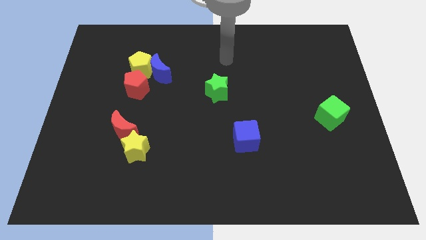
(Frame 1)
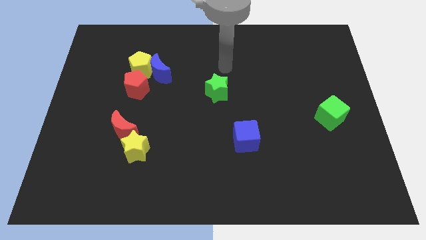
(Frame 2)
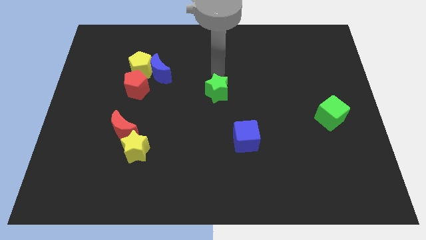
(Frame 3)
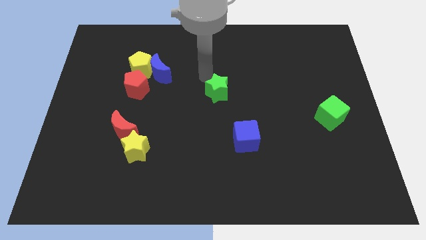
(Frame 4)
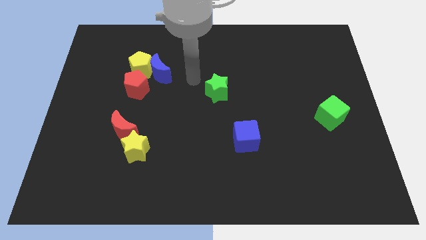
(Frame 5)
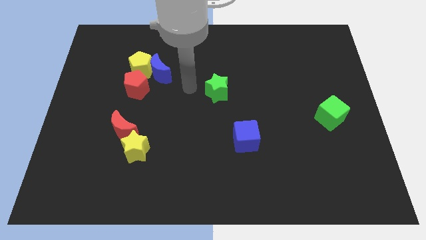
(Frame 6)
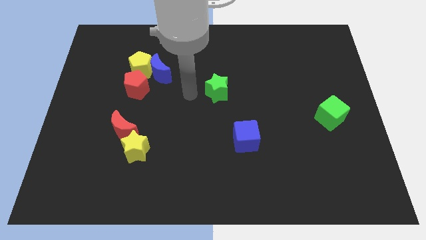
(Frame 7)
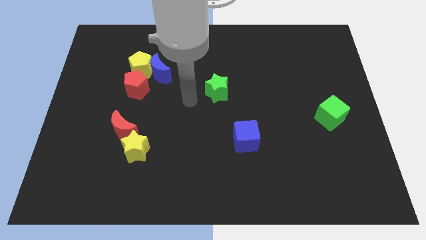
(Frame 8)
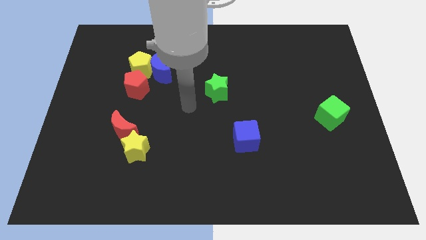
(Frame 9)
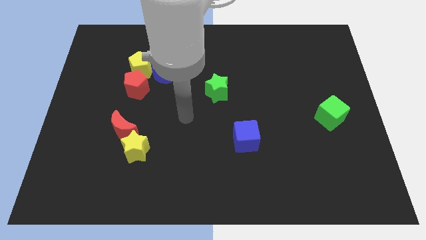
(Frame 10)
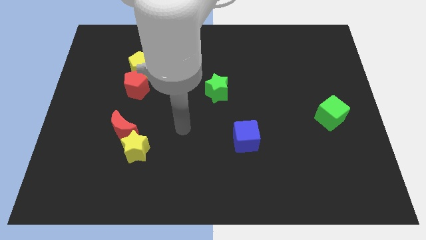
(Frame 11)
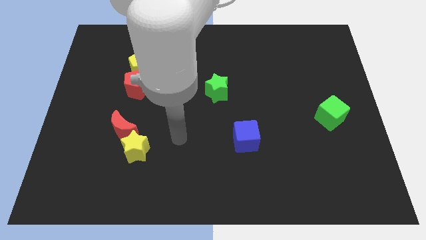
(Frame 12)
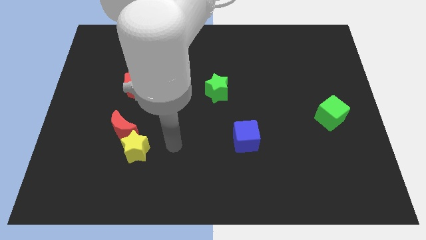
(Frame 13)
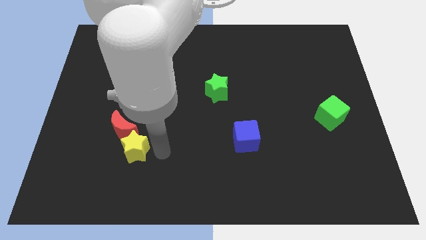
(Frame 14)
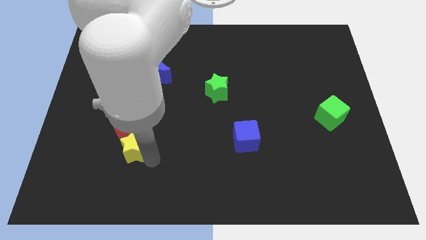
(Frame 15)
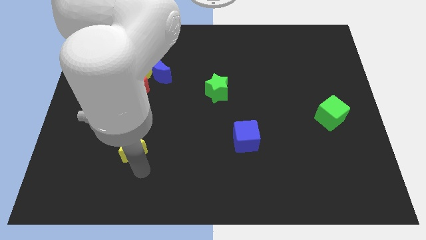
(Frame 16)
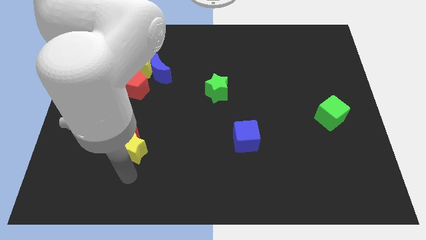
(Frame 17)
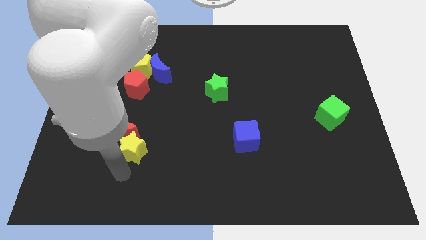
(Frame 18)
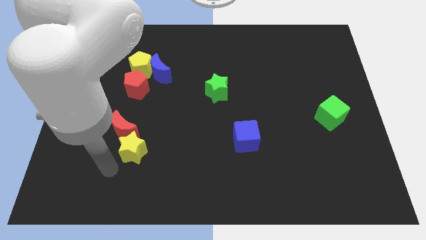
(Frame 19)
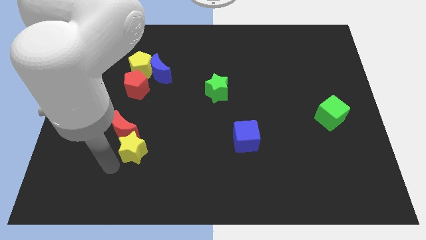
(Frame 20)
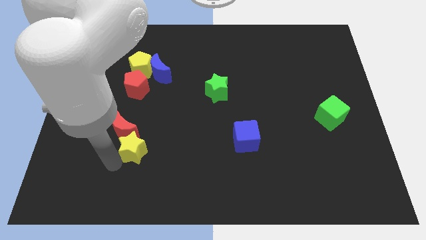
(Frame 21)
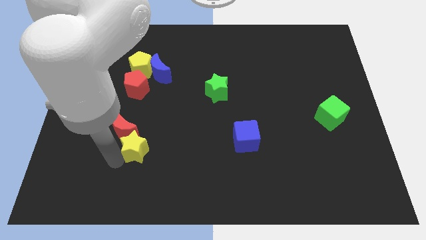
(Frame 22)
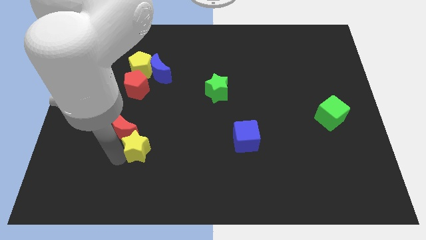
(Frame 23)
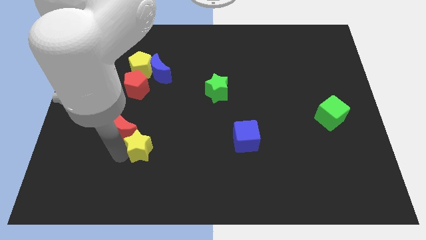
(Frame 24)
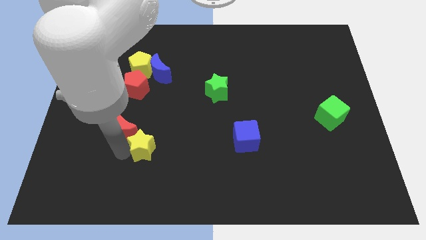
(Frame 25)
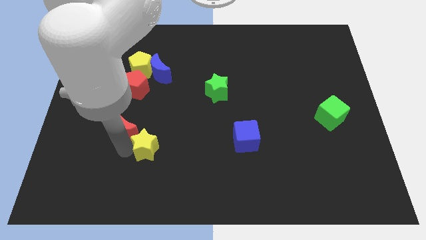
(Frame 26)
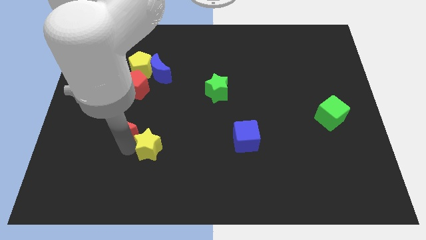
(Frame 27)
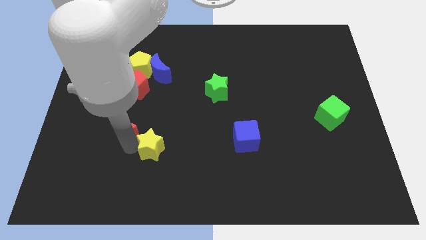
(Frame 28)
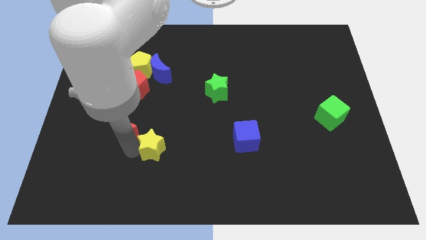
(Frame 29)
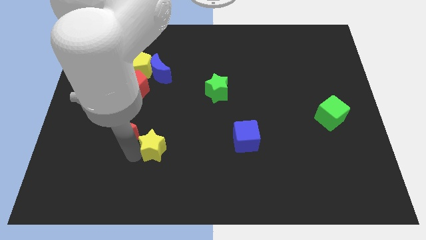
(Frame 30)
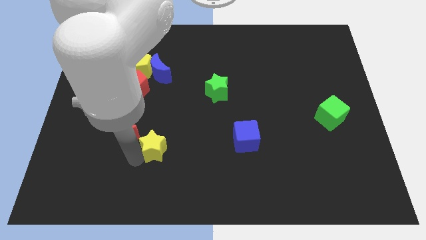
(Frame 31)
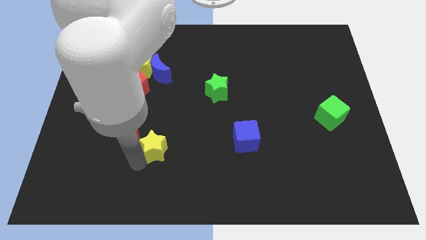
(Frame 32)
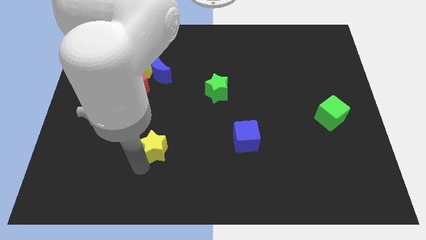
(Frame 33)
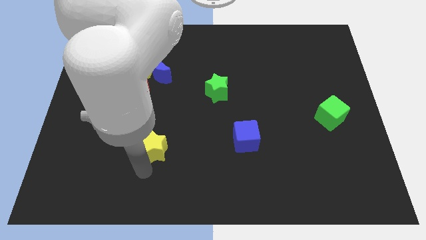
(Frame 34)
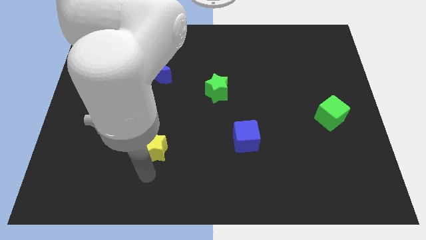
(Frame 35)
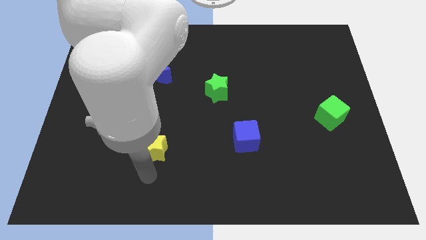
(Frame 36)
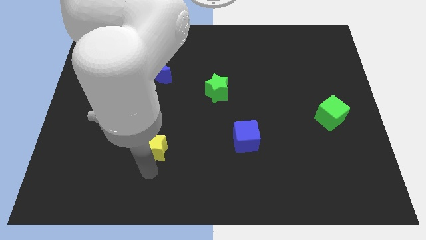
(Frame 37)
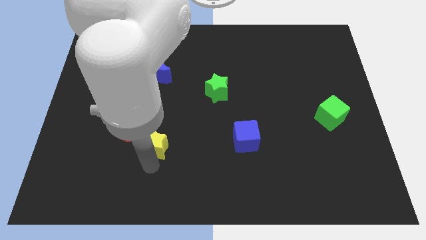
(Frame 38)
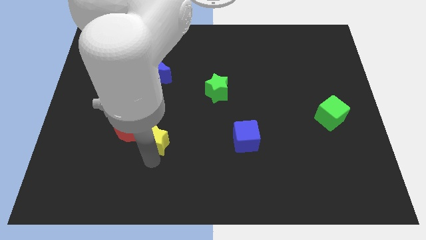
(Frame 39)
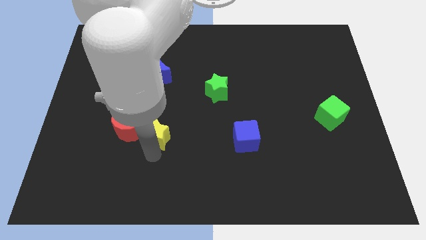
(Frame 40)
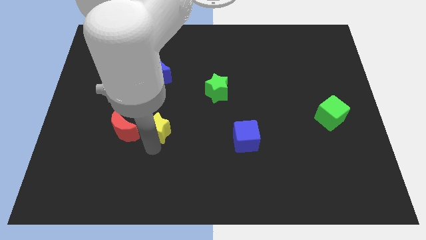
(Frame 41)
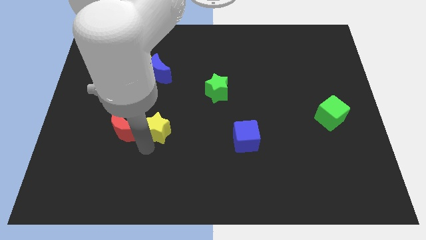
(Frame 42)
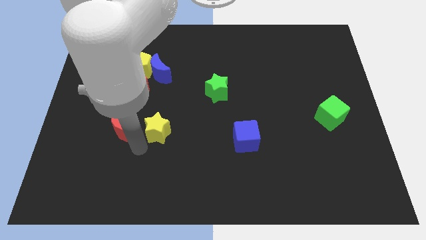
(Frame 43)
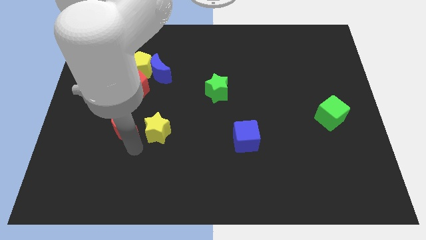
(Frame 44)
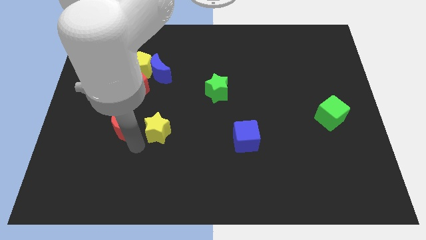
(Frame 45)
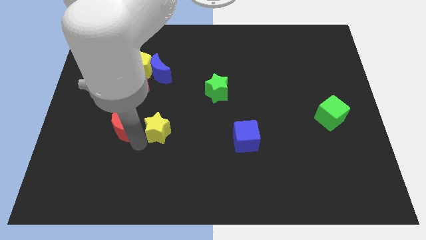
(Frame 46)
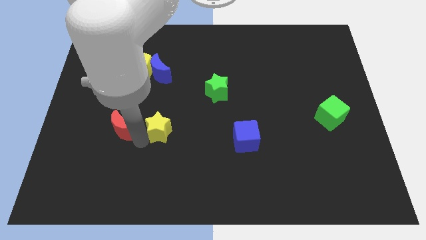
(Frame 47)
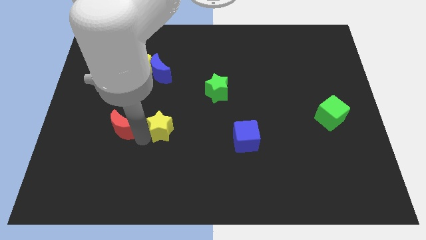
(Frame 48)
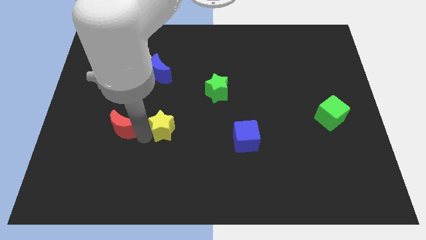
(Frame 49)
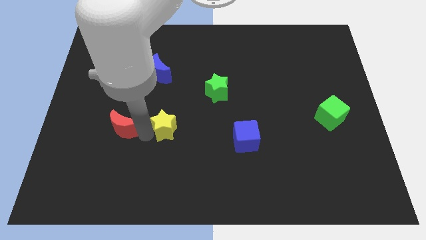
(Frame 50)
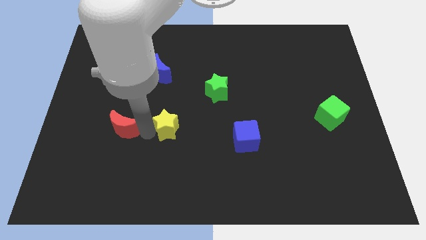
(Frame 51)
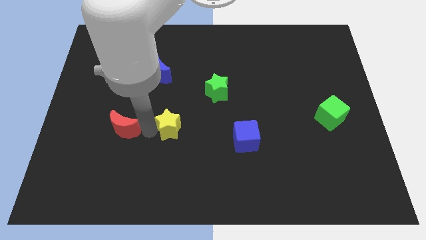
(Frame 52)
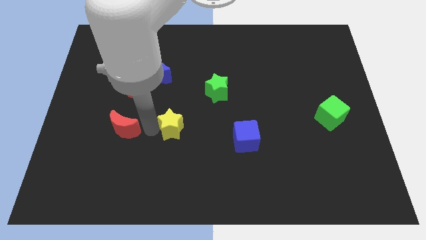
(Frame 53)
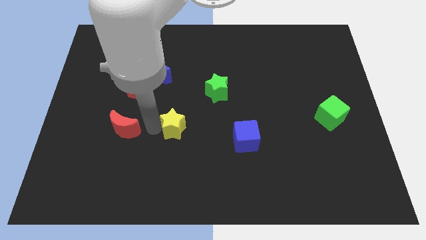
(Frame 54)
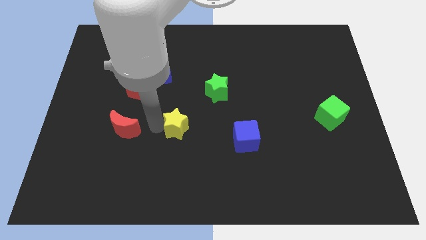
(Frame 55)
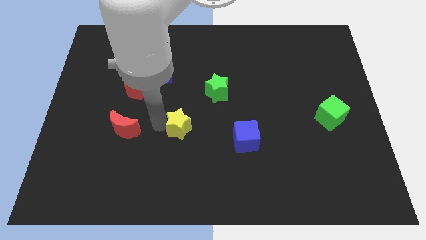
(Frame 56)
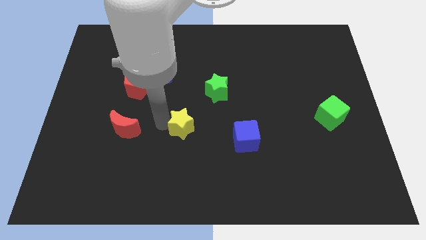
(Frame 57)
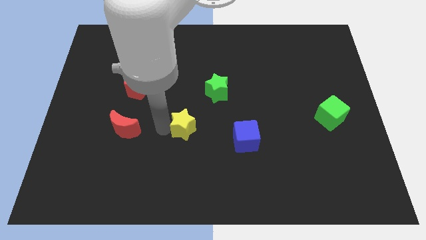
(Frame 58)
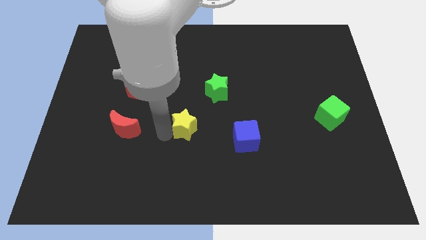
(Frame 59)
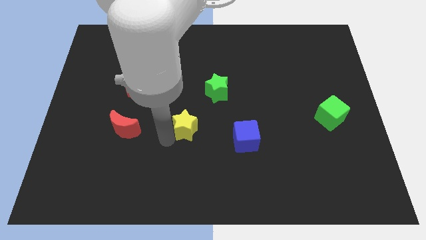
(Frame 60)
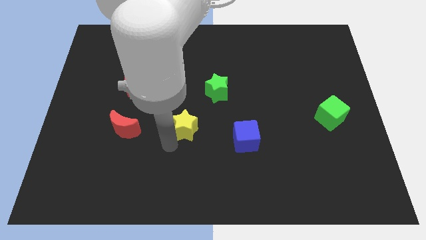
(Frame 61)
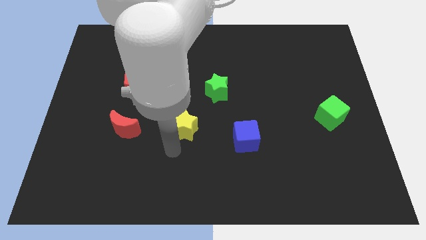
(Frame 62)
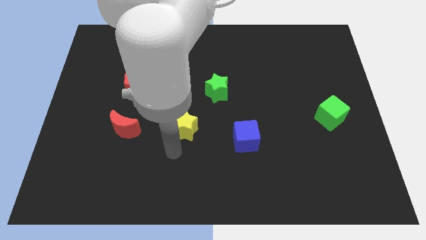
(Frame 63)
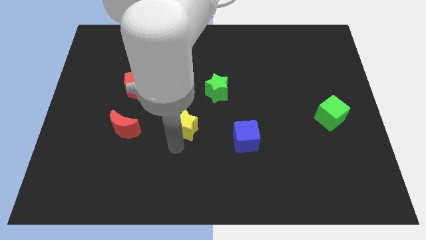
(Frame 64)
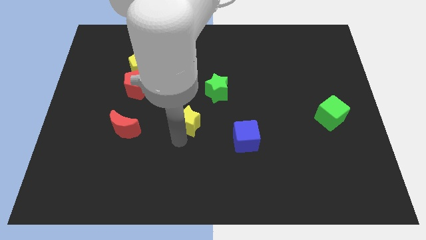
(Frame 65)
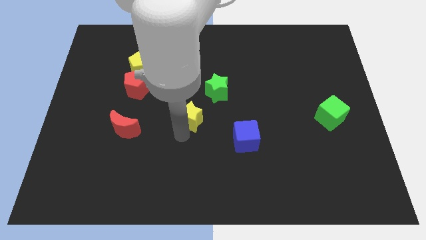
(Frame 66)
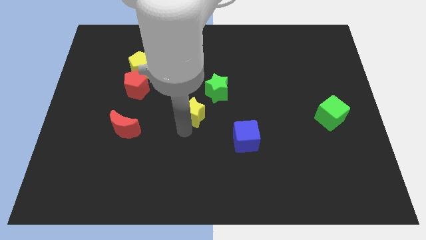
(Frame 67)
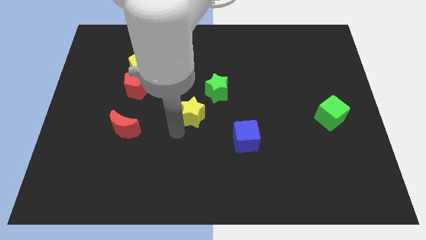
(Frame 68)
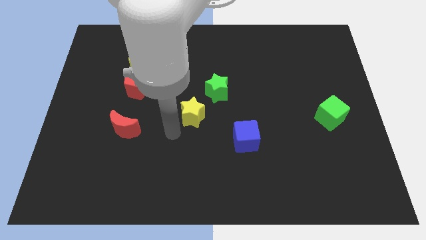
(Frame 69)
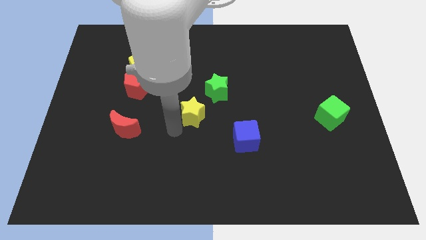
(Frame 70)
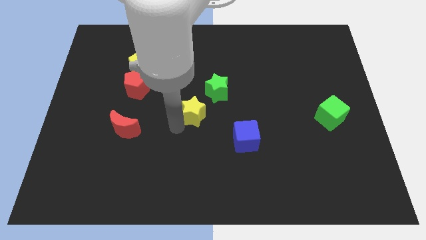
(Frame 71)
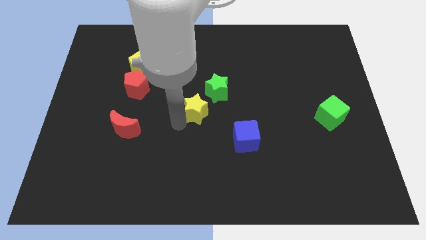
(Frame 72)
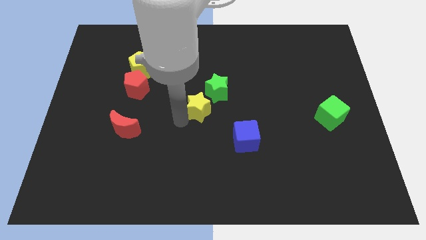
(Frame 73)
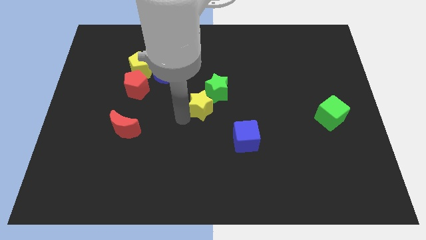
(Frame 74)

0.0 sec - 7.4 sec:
slide the yellow star to the green star
